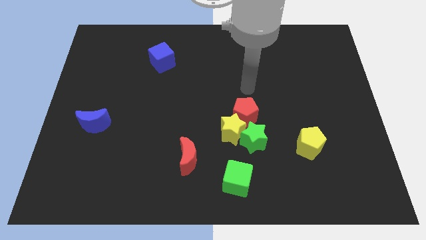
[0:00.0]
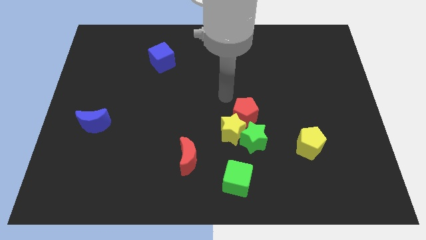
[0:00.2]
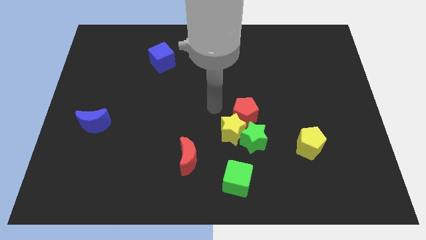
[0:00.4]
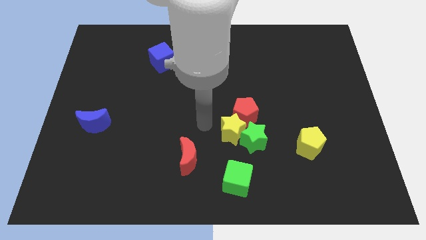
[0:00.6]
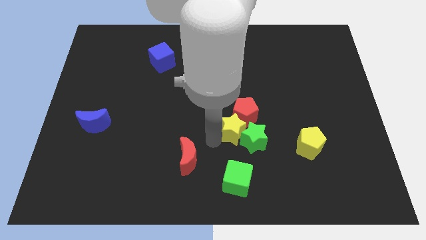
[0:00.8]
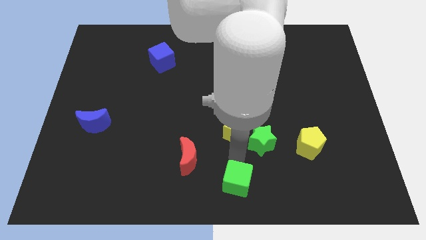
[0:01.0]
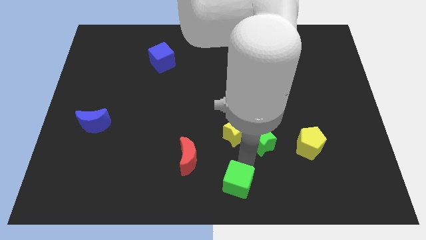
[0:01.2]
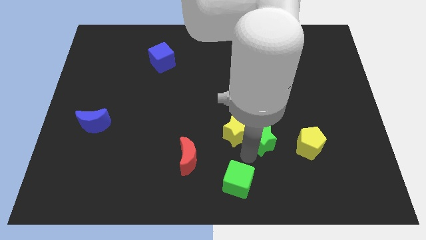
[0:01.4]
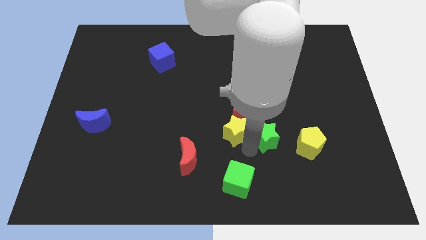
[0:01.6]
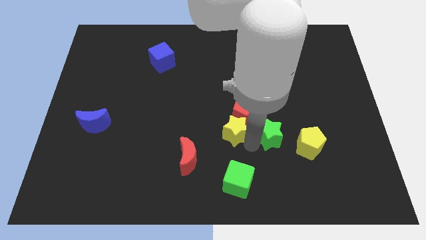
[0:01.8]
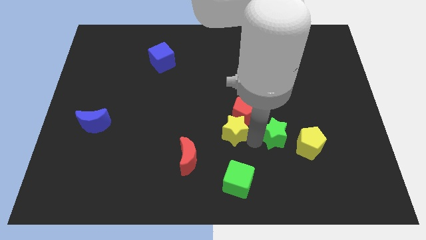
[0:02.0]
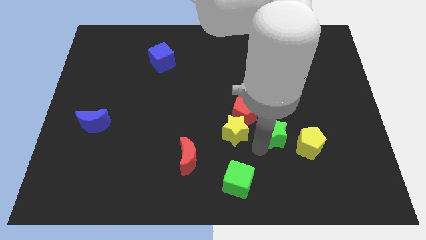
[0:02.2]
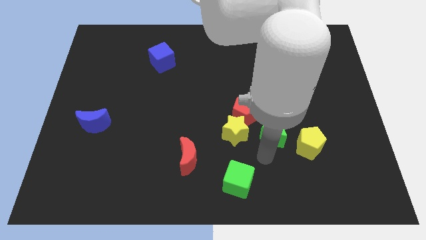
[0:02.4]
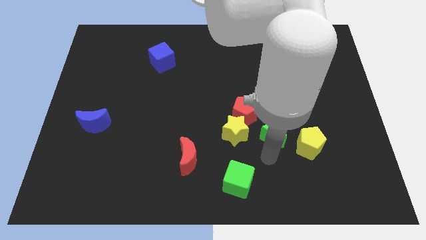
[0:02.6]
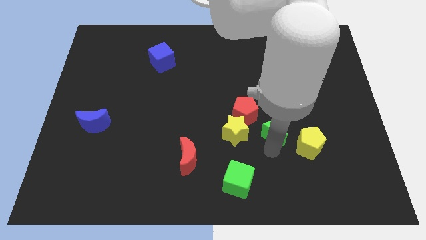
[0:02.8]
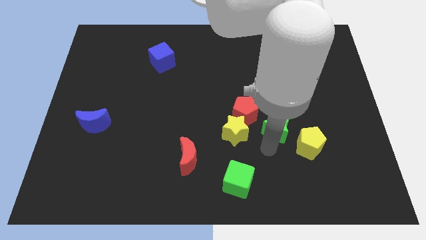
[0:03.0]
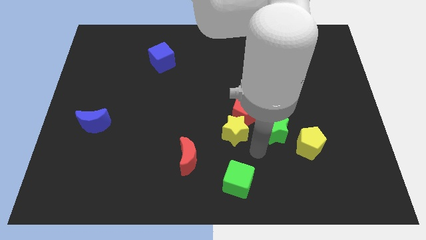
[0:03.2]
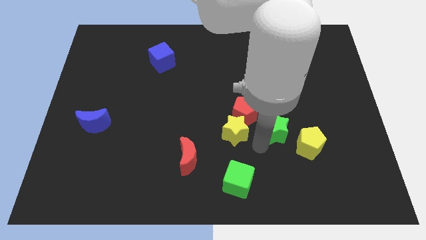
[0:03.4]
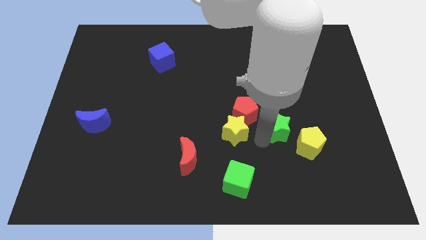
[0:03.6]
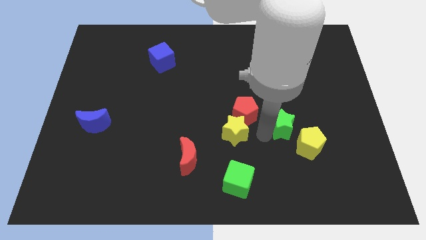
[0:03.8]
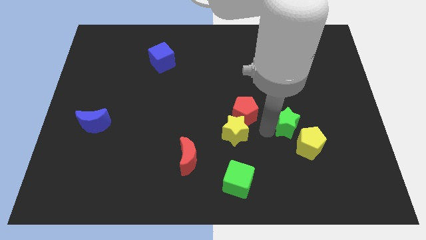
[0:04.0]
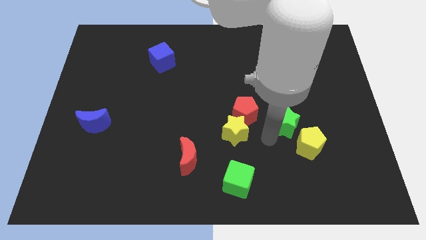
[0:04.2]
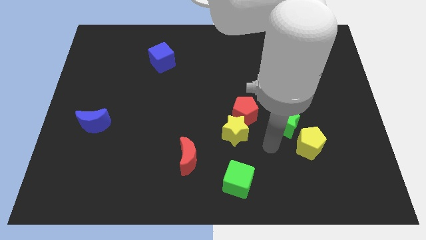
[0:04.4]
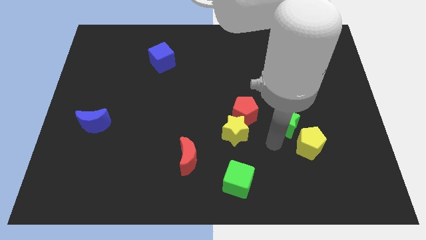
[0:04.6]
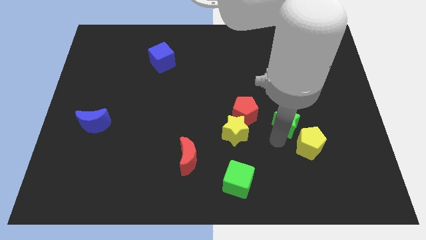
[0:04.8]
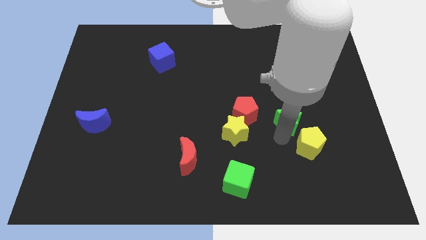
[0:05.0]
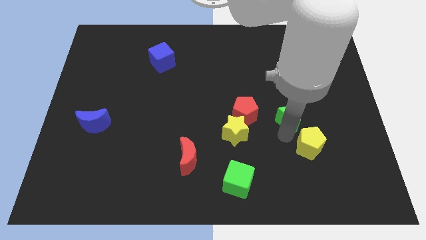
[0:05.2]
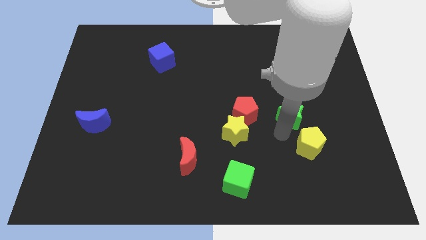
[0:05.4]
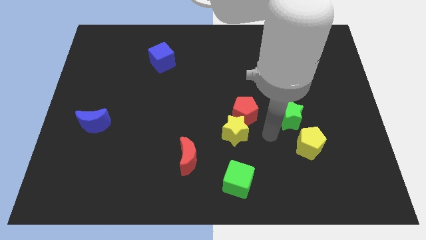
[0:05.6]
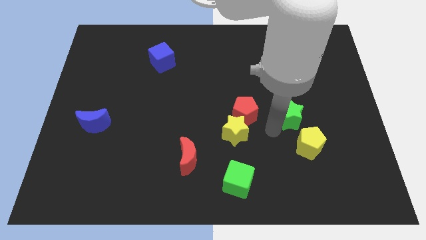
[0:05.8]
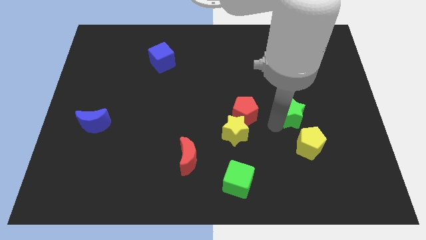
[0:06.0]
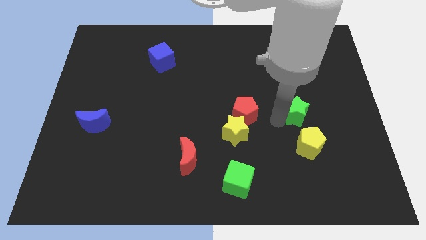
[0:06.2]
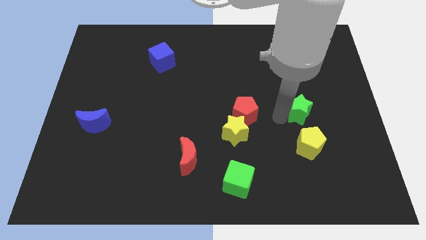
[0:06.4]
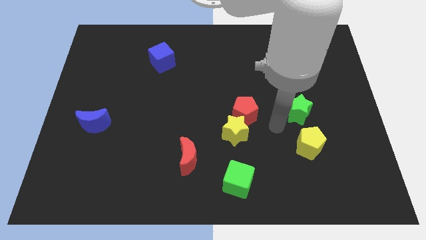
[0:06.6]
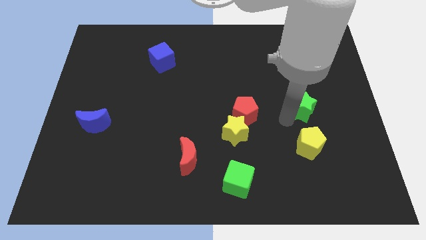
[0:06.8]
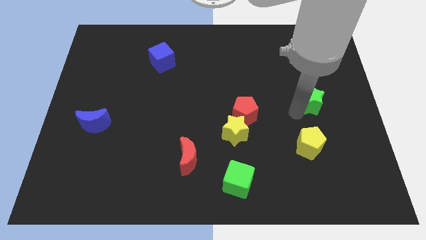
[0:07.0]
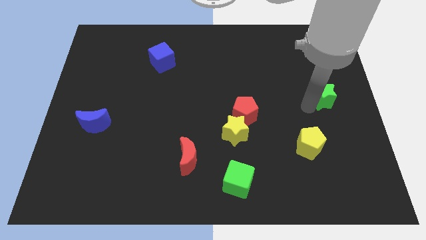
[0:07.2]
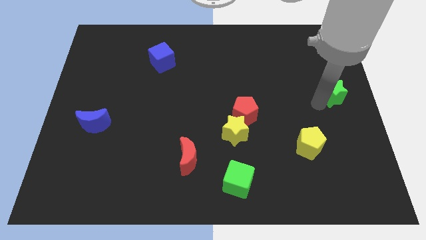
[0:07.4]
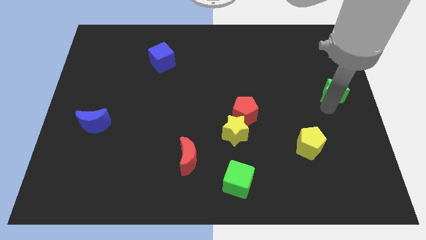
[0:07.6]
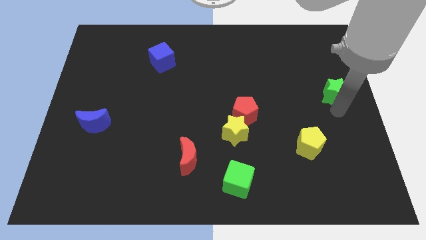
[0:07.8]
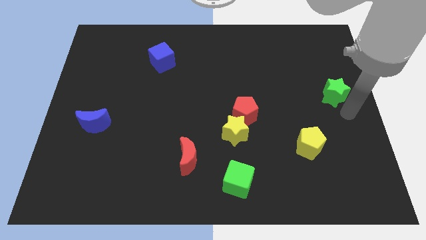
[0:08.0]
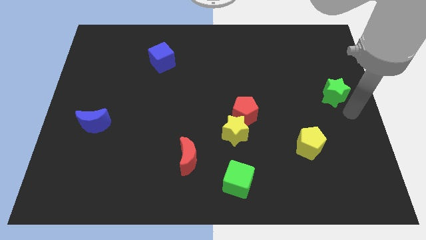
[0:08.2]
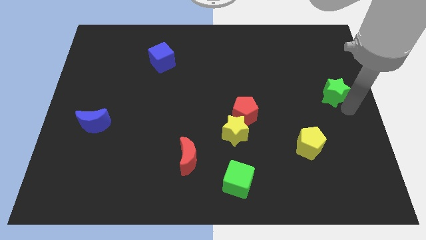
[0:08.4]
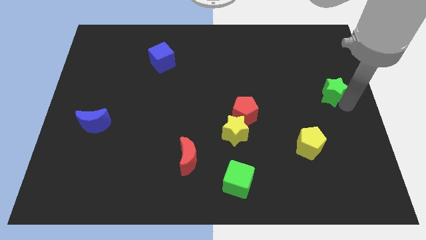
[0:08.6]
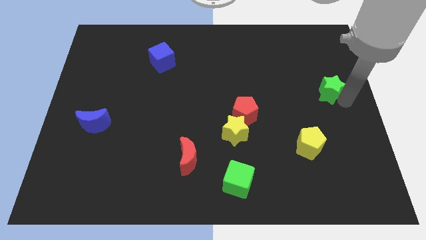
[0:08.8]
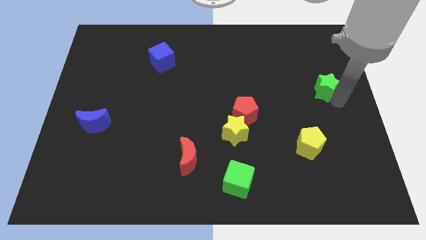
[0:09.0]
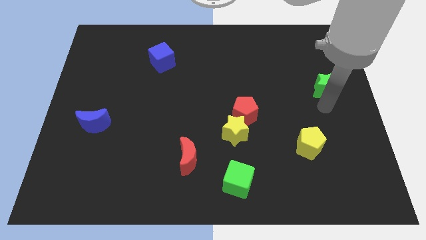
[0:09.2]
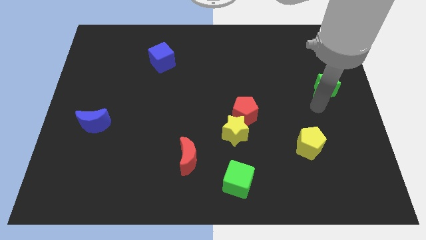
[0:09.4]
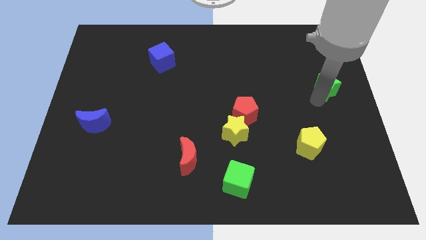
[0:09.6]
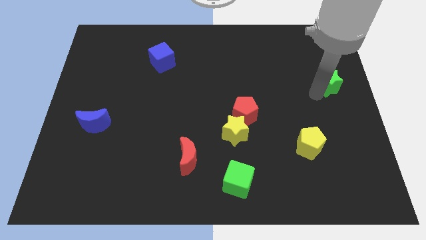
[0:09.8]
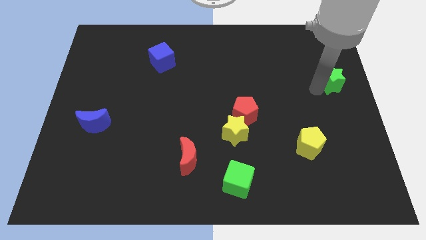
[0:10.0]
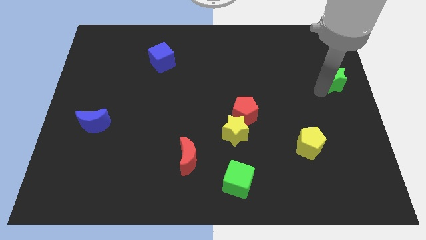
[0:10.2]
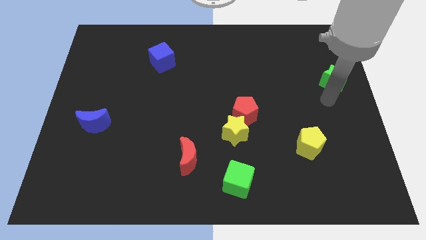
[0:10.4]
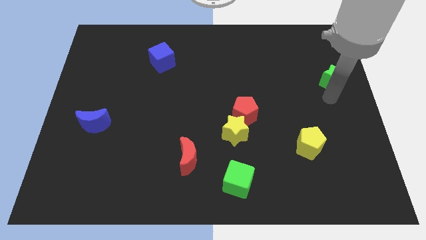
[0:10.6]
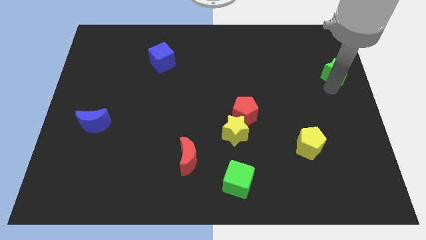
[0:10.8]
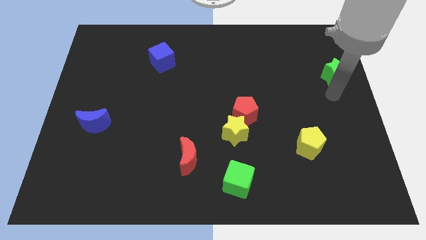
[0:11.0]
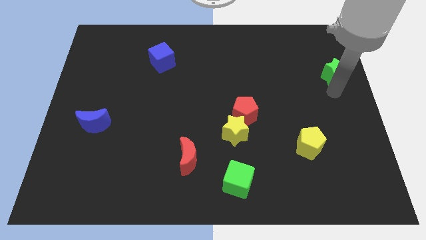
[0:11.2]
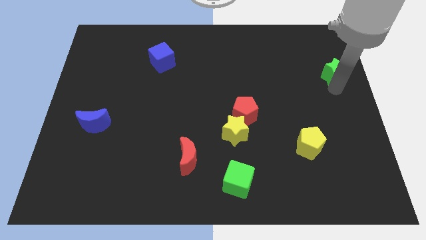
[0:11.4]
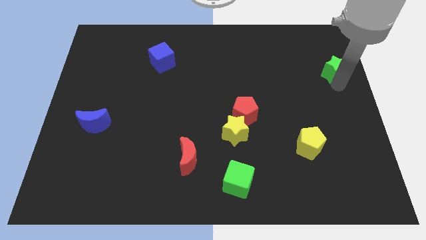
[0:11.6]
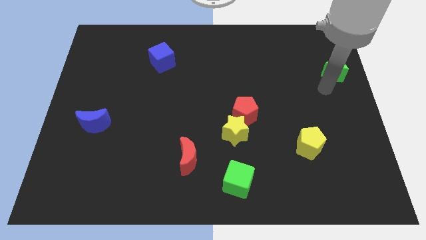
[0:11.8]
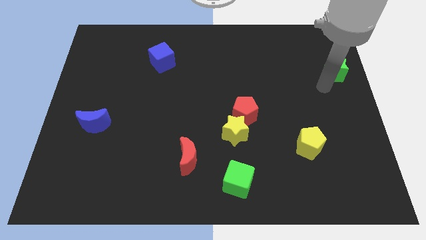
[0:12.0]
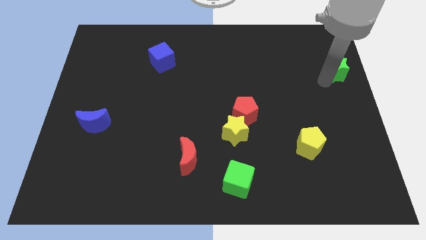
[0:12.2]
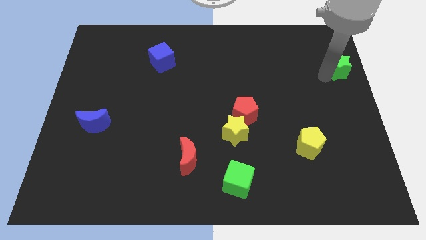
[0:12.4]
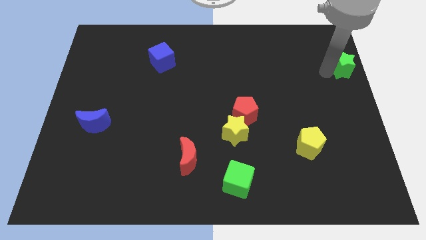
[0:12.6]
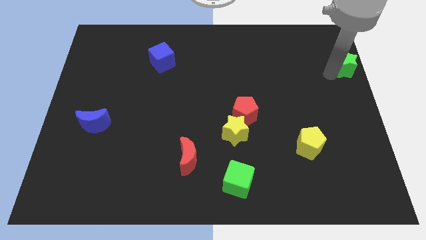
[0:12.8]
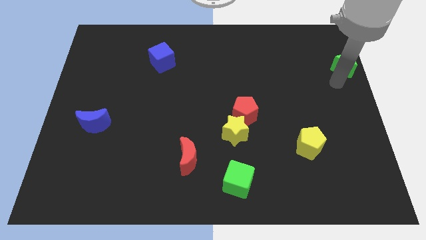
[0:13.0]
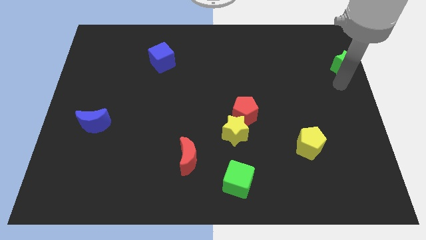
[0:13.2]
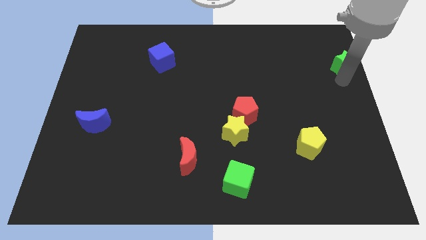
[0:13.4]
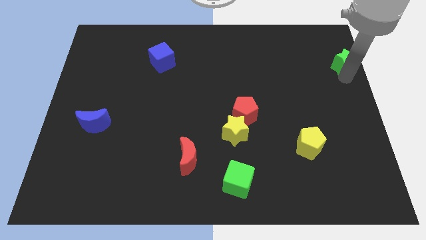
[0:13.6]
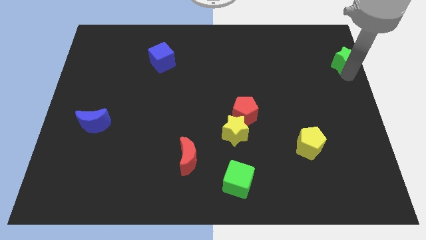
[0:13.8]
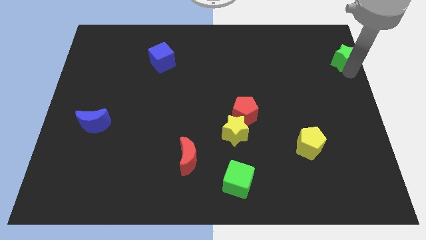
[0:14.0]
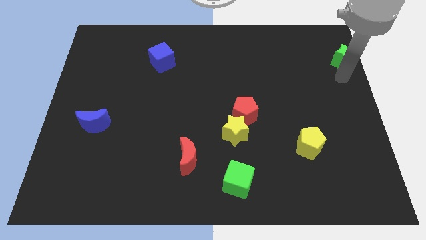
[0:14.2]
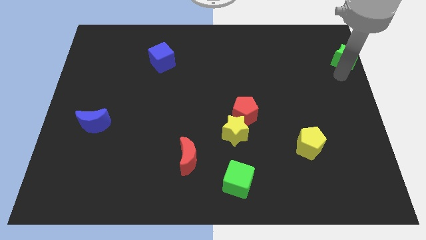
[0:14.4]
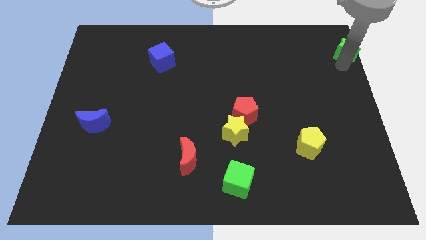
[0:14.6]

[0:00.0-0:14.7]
push the green star to the top right corner
